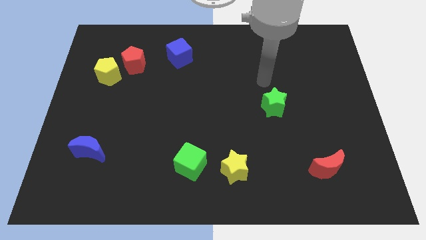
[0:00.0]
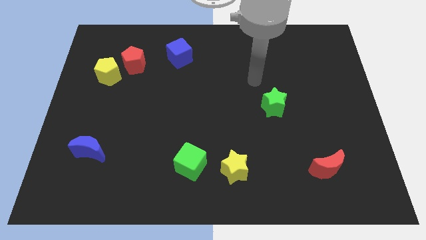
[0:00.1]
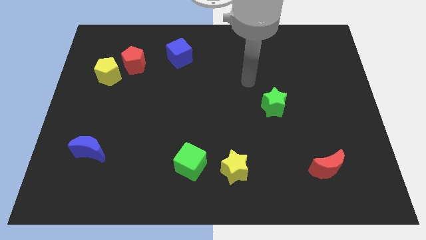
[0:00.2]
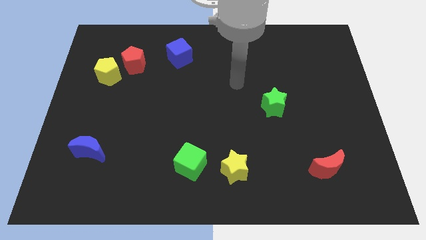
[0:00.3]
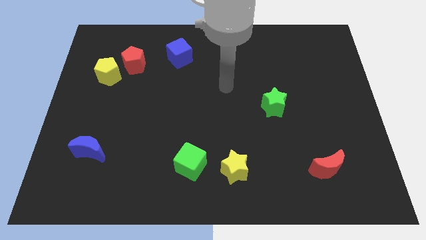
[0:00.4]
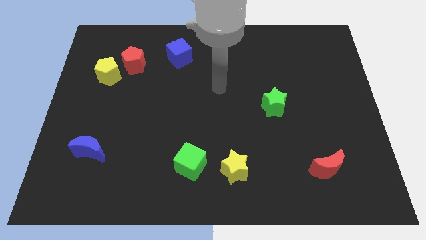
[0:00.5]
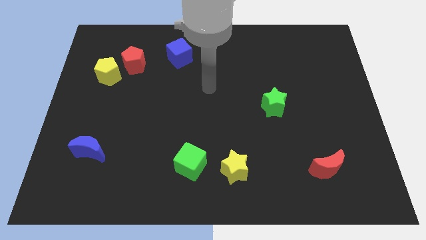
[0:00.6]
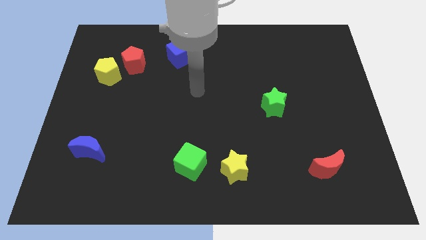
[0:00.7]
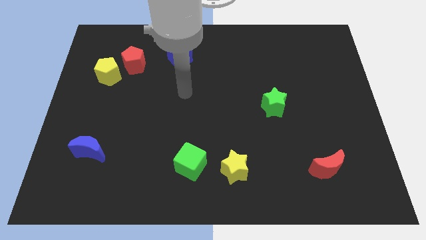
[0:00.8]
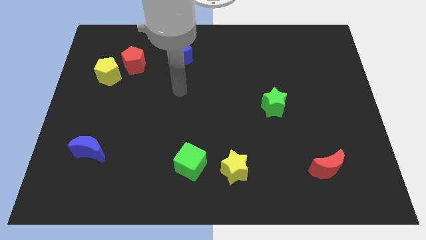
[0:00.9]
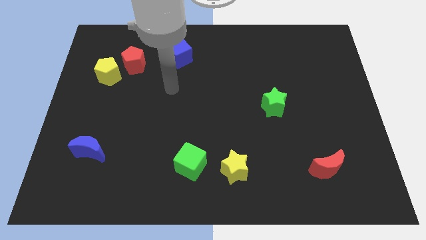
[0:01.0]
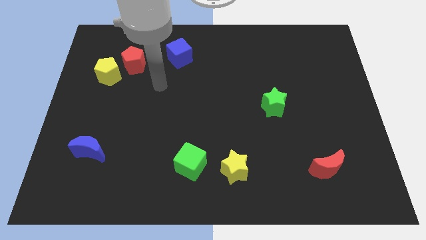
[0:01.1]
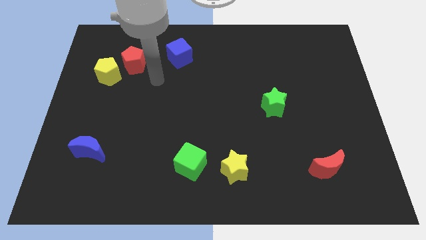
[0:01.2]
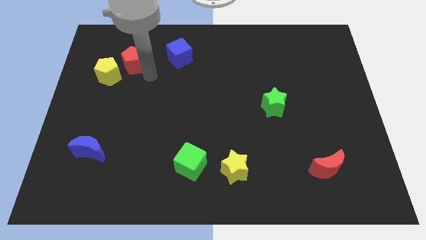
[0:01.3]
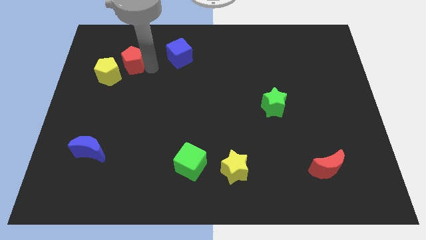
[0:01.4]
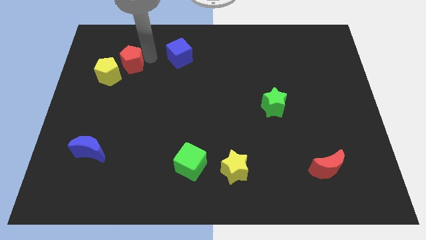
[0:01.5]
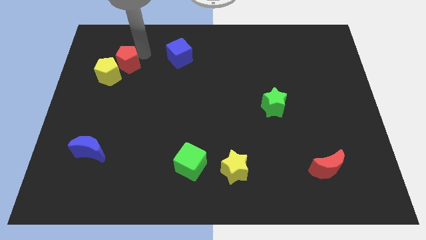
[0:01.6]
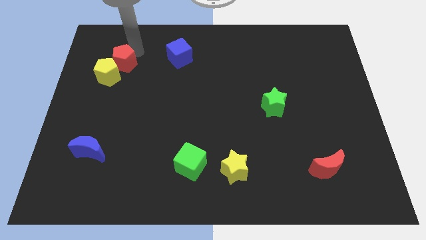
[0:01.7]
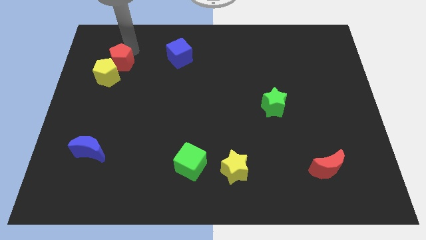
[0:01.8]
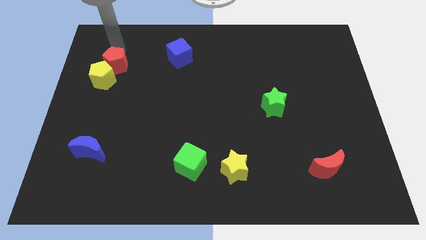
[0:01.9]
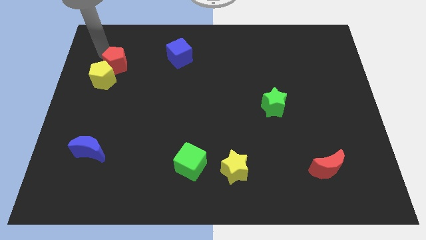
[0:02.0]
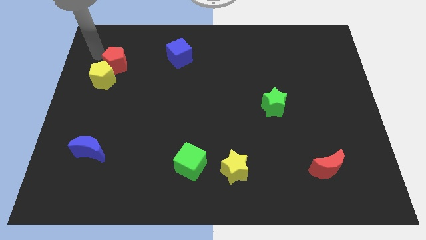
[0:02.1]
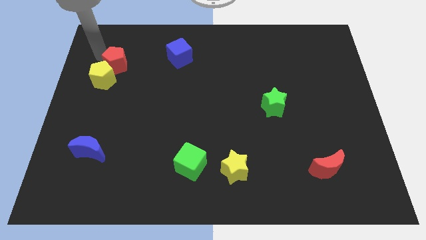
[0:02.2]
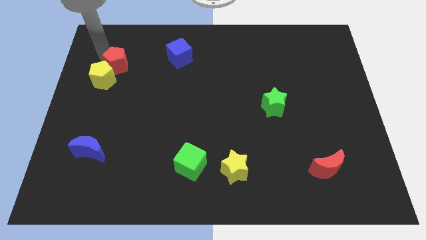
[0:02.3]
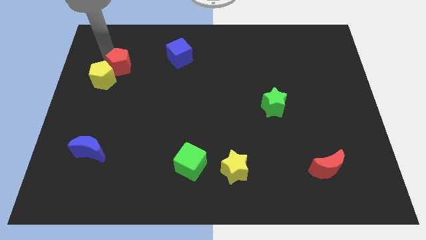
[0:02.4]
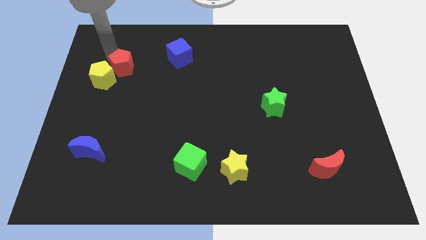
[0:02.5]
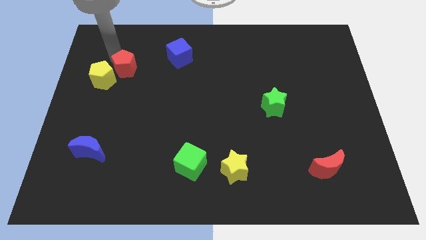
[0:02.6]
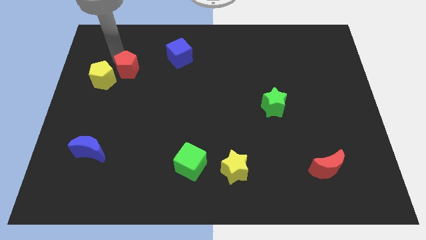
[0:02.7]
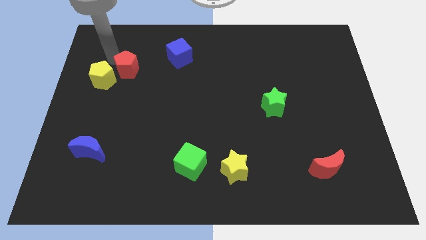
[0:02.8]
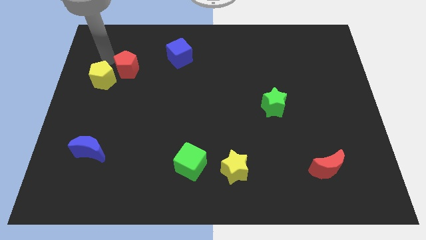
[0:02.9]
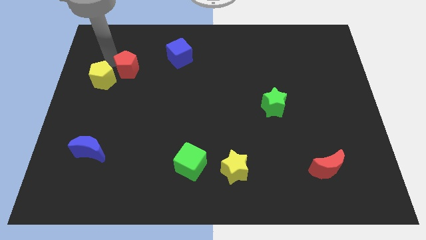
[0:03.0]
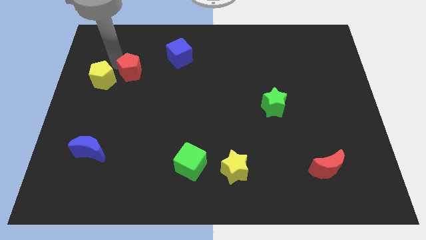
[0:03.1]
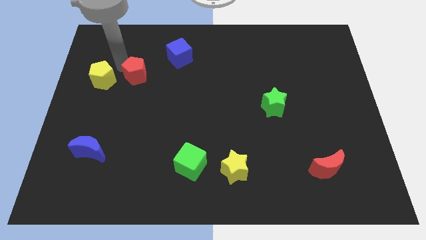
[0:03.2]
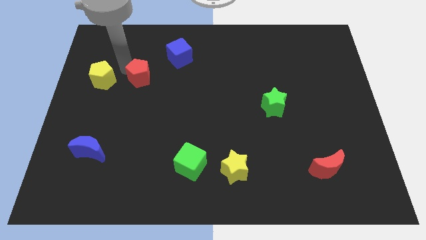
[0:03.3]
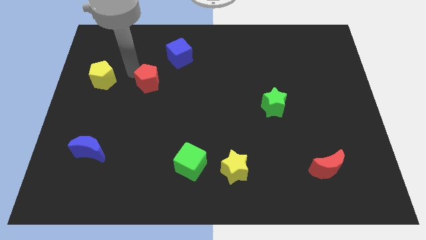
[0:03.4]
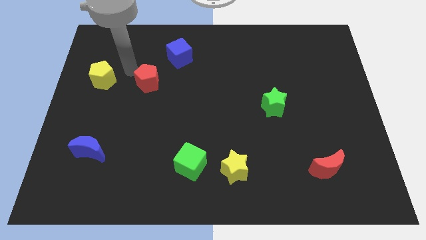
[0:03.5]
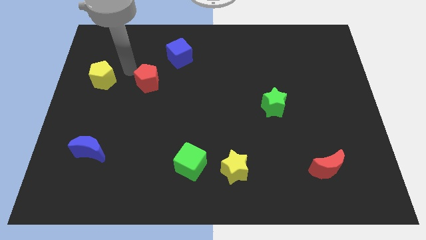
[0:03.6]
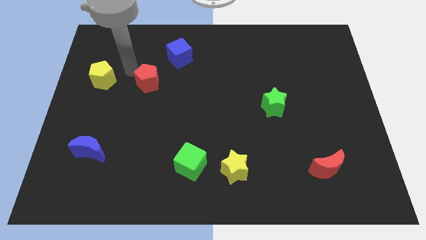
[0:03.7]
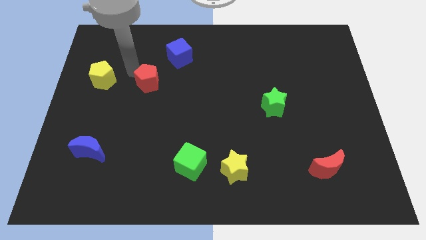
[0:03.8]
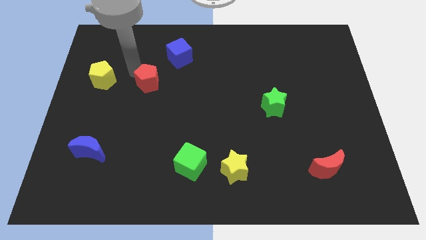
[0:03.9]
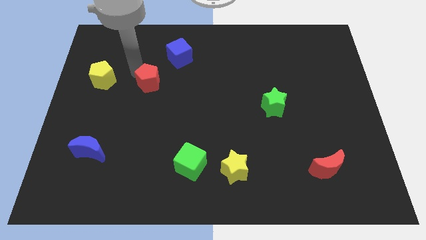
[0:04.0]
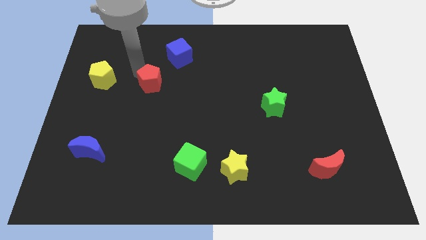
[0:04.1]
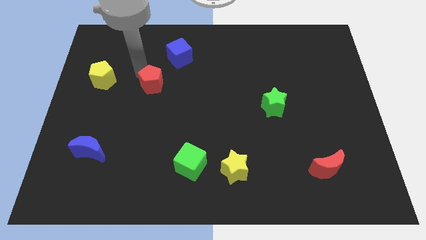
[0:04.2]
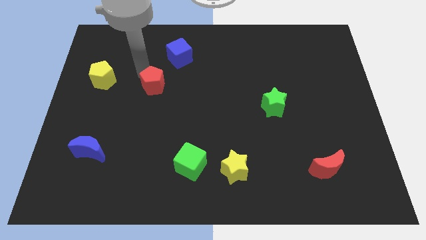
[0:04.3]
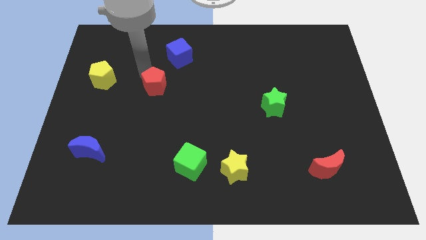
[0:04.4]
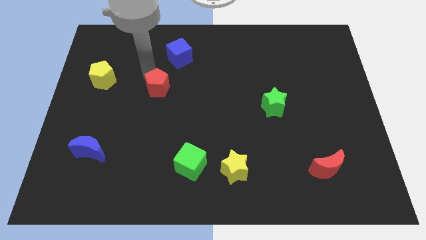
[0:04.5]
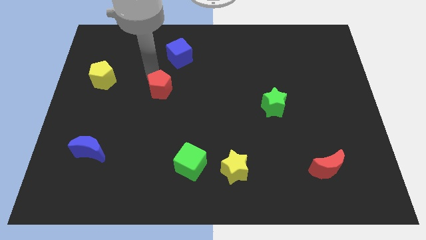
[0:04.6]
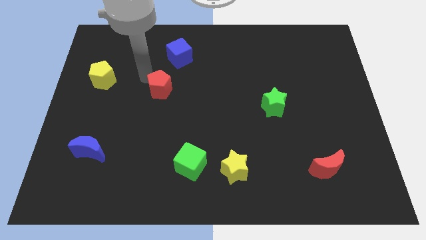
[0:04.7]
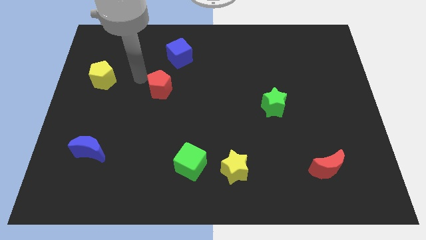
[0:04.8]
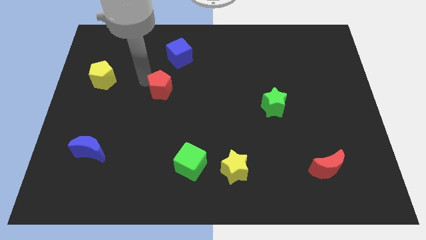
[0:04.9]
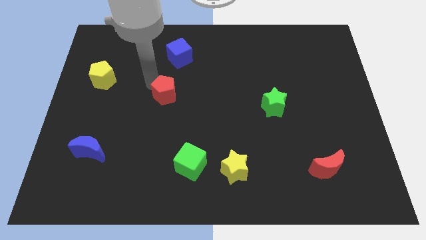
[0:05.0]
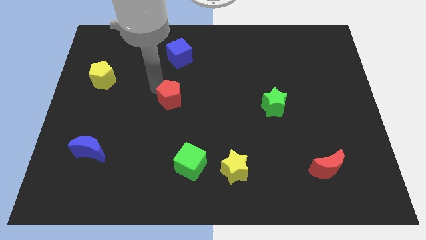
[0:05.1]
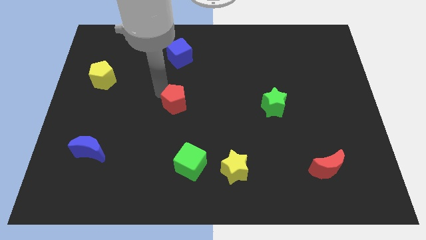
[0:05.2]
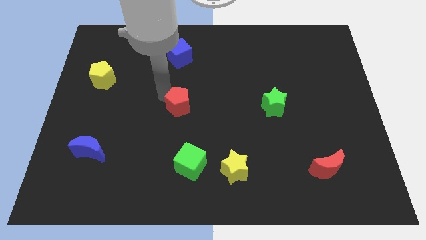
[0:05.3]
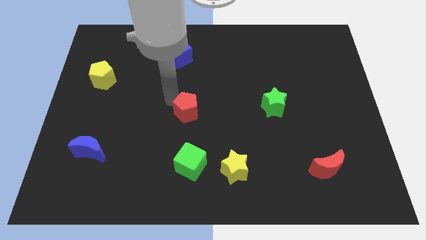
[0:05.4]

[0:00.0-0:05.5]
move the red pentagon down and then to the right

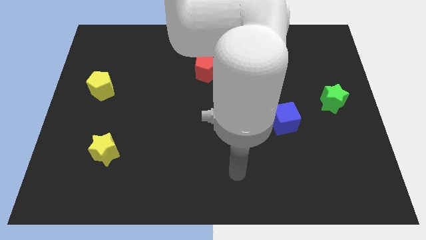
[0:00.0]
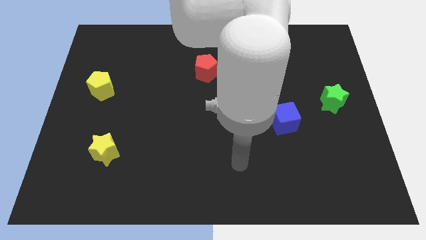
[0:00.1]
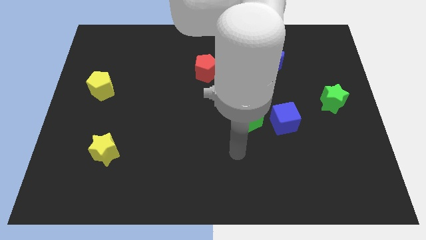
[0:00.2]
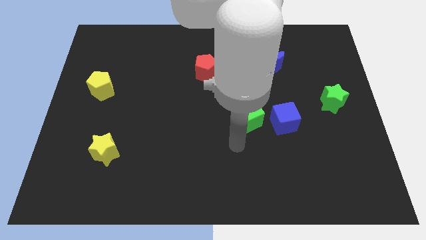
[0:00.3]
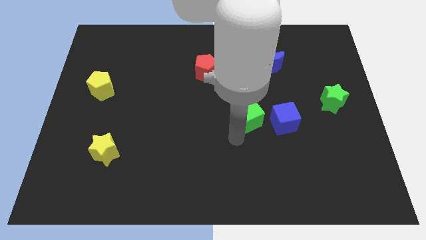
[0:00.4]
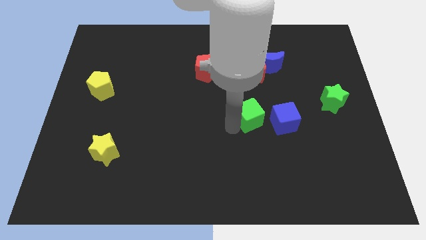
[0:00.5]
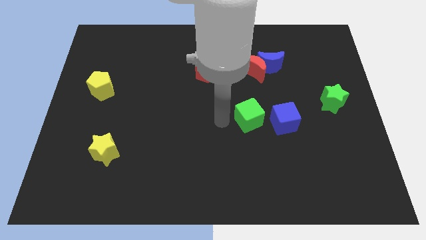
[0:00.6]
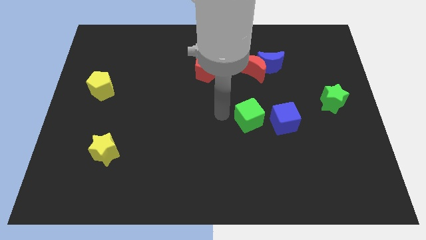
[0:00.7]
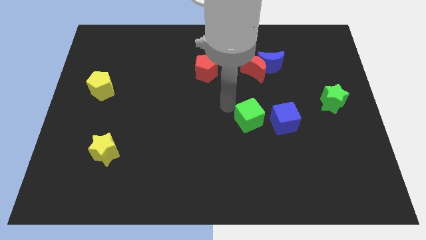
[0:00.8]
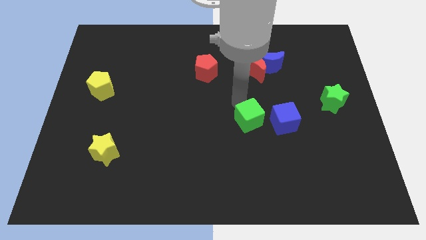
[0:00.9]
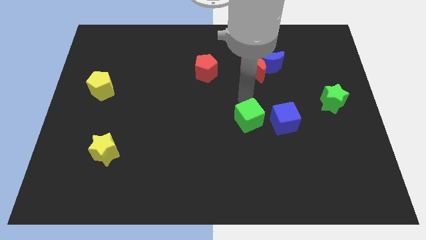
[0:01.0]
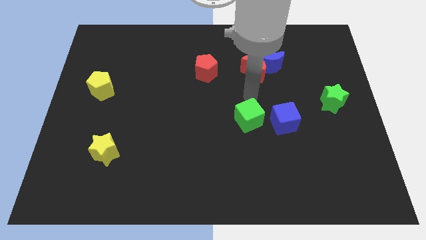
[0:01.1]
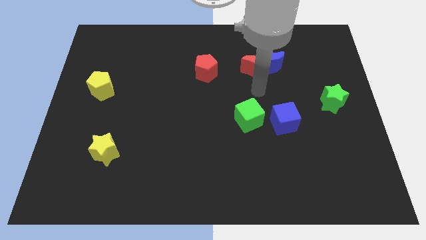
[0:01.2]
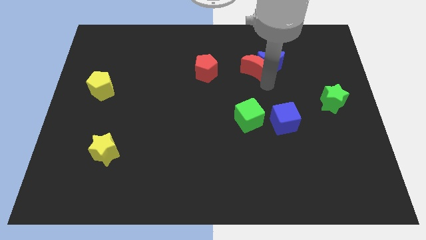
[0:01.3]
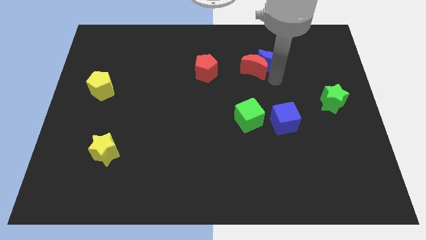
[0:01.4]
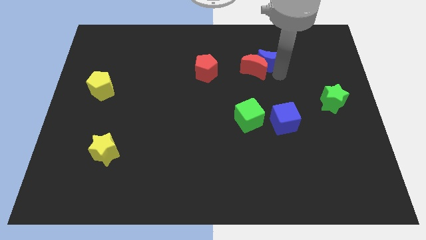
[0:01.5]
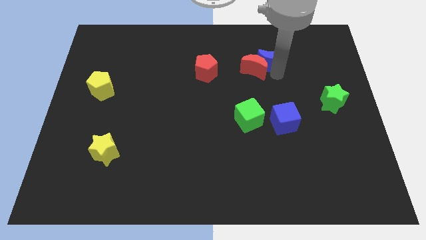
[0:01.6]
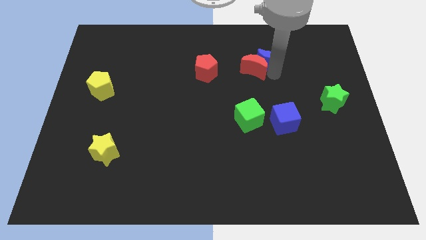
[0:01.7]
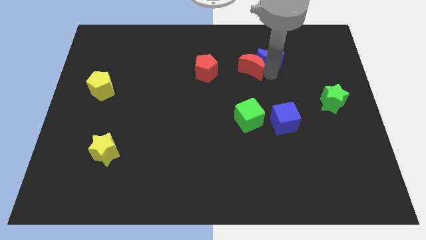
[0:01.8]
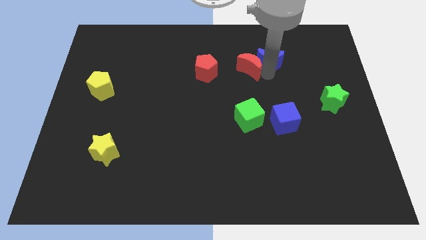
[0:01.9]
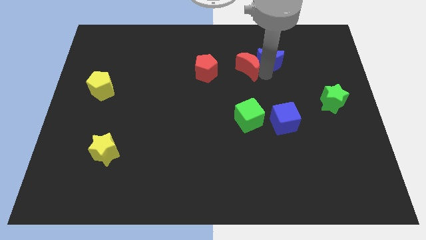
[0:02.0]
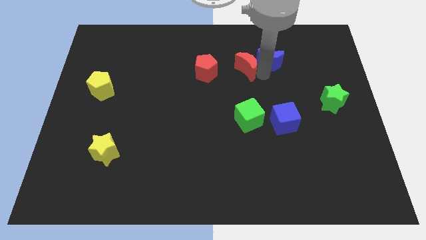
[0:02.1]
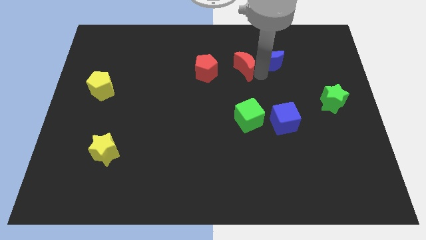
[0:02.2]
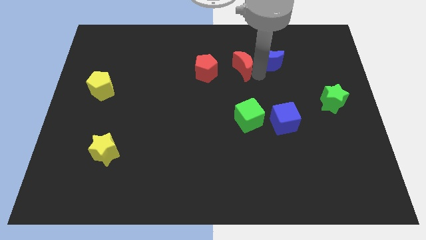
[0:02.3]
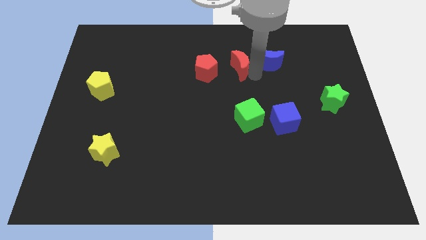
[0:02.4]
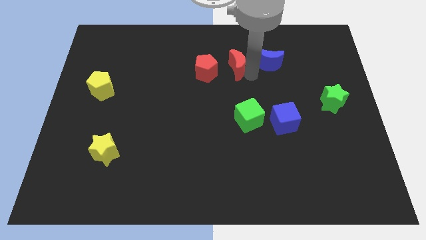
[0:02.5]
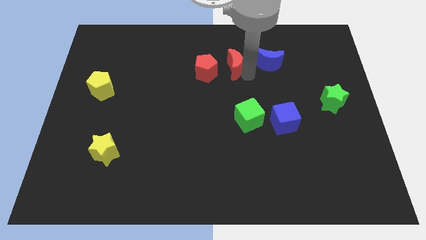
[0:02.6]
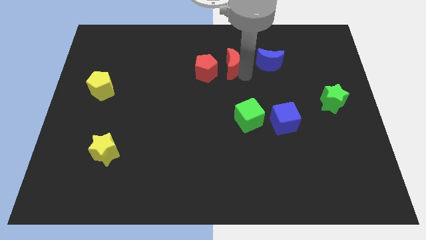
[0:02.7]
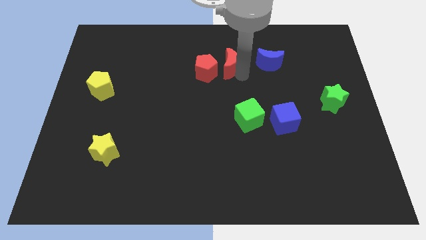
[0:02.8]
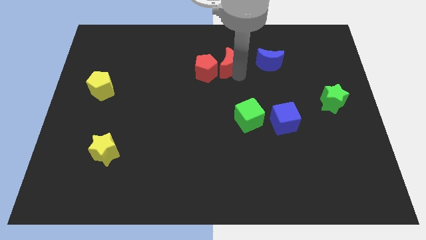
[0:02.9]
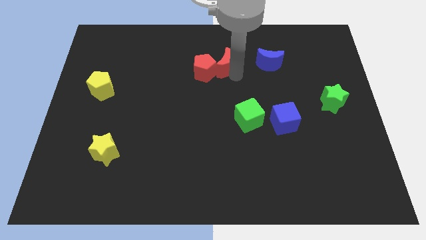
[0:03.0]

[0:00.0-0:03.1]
push the red moon left slightly
